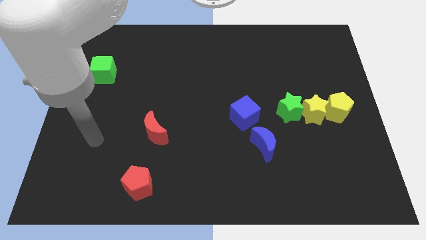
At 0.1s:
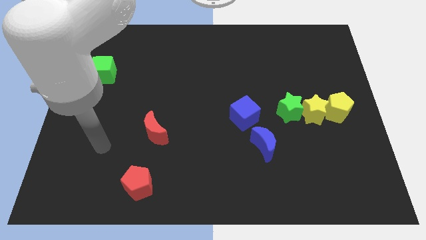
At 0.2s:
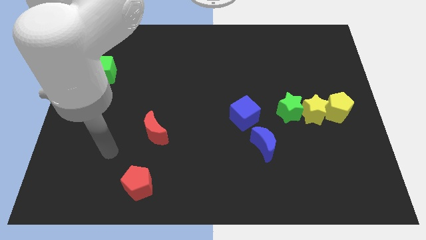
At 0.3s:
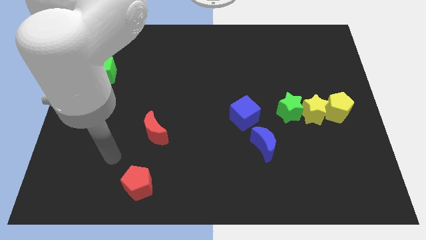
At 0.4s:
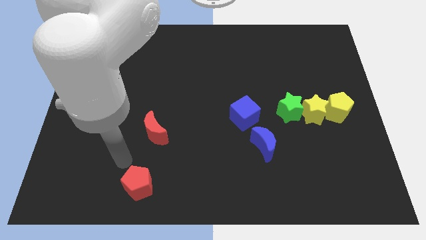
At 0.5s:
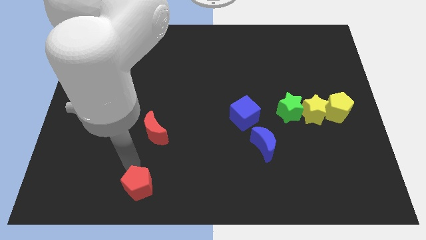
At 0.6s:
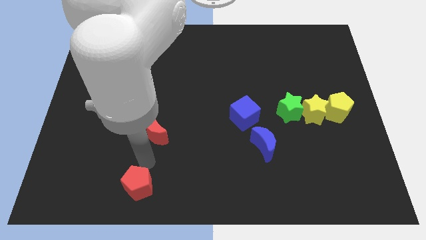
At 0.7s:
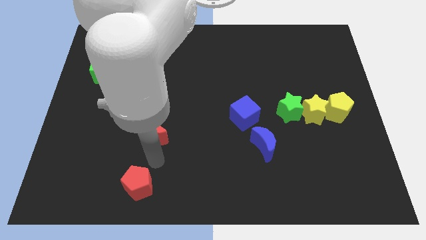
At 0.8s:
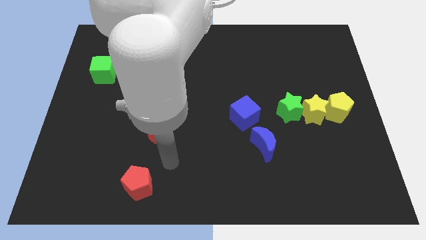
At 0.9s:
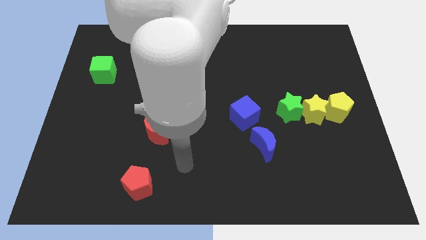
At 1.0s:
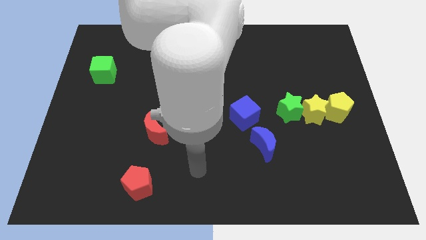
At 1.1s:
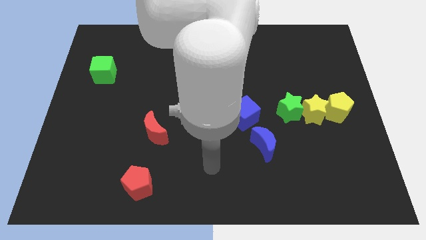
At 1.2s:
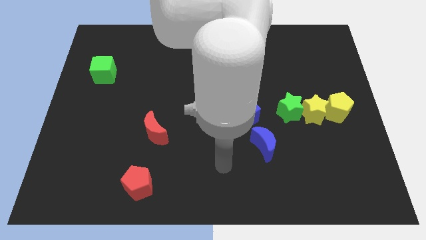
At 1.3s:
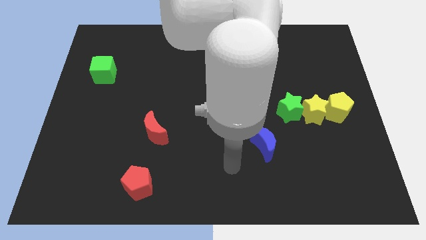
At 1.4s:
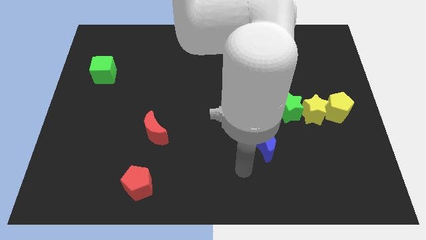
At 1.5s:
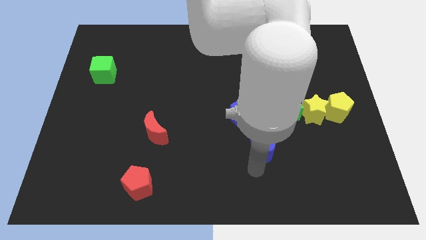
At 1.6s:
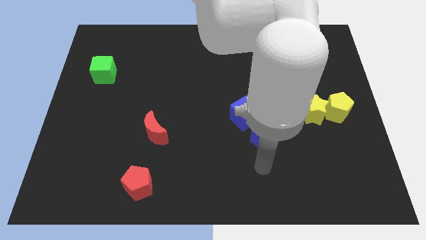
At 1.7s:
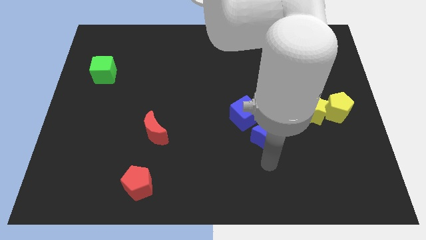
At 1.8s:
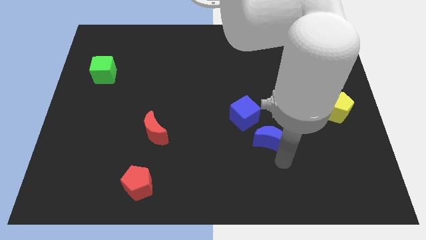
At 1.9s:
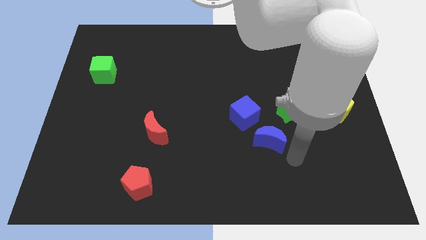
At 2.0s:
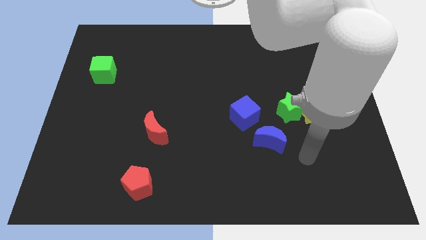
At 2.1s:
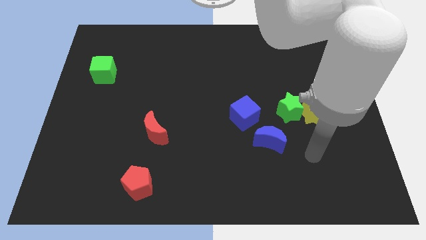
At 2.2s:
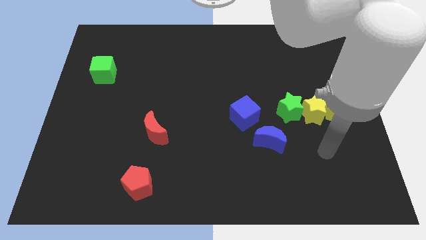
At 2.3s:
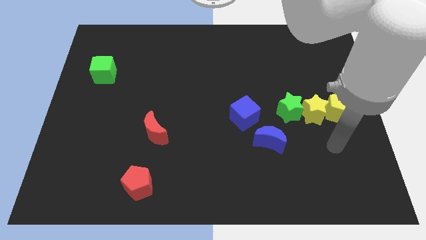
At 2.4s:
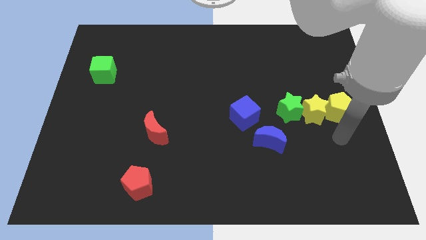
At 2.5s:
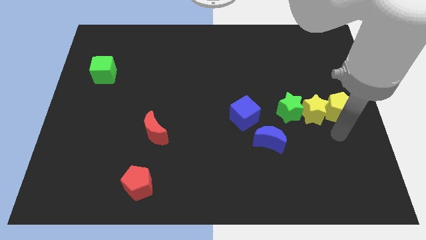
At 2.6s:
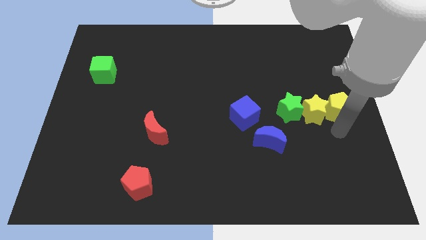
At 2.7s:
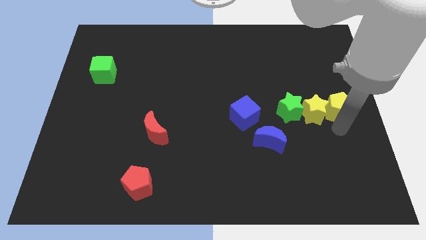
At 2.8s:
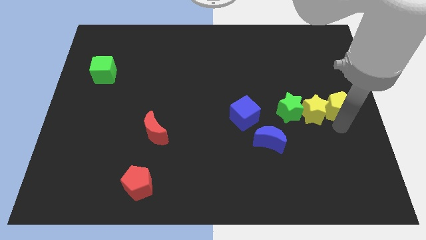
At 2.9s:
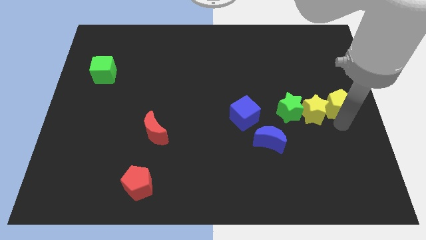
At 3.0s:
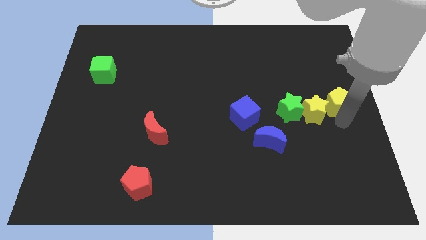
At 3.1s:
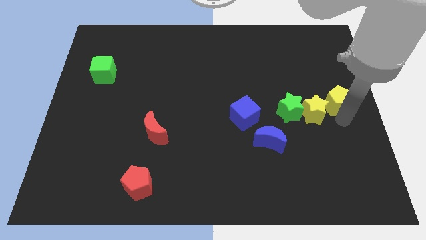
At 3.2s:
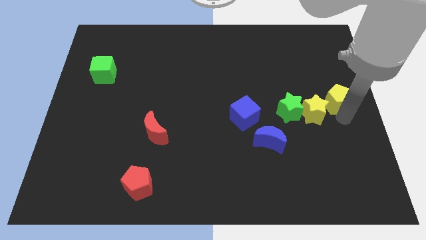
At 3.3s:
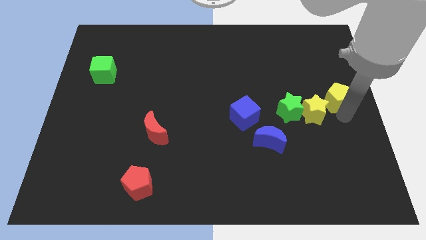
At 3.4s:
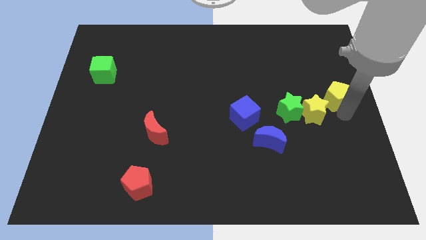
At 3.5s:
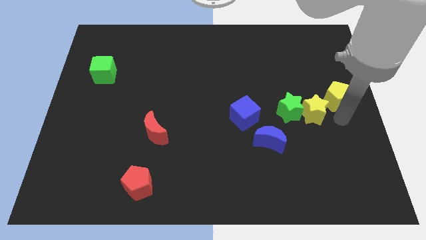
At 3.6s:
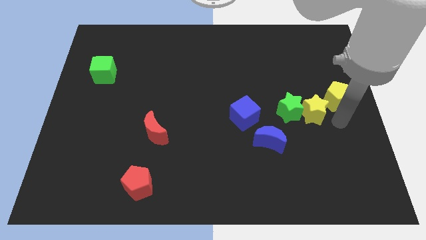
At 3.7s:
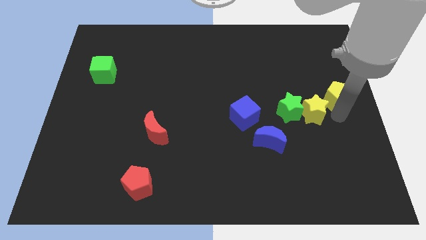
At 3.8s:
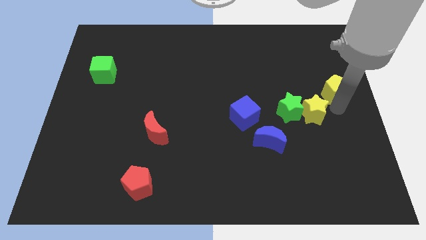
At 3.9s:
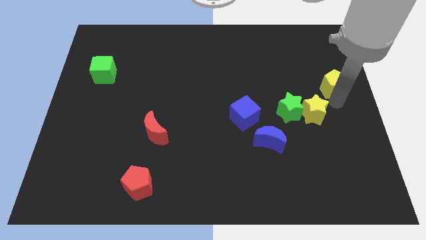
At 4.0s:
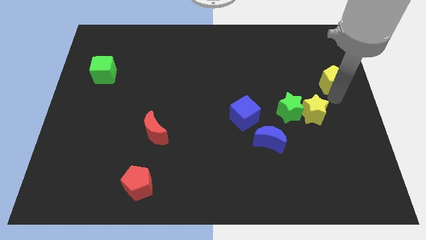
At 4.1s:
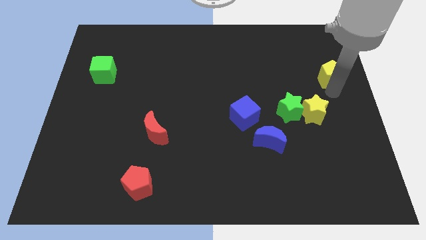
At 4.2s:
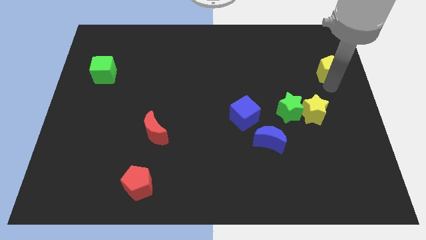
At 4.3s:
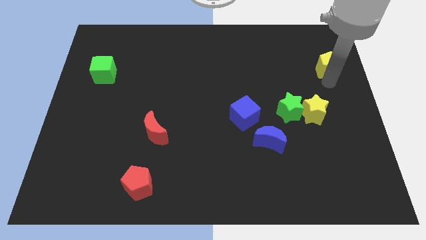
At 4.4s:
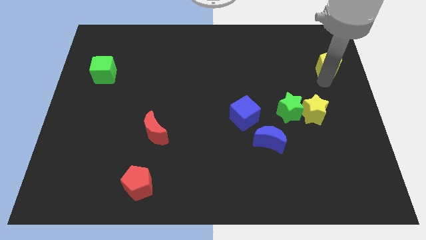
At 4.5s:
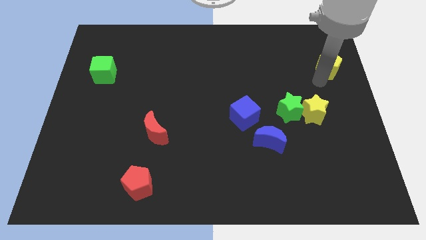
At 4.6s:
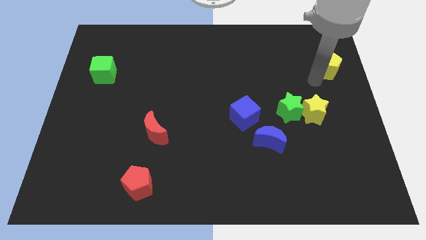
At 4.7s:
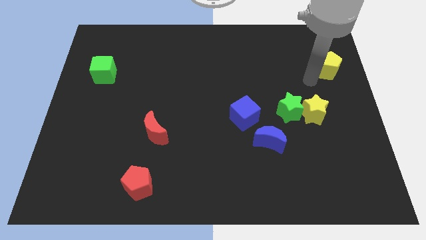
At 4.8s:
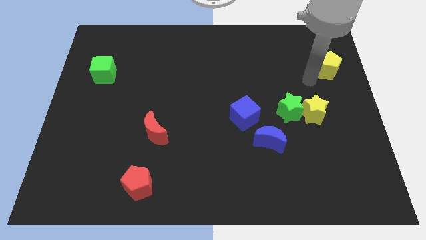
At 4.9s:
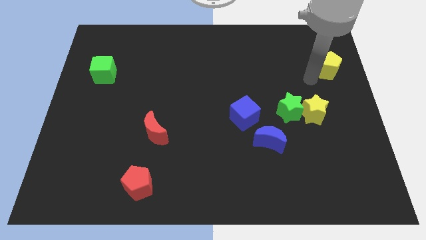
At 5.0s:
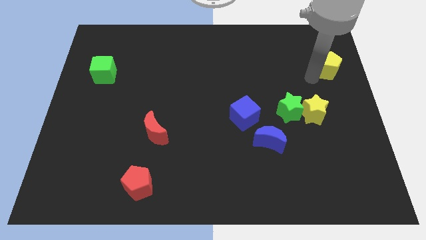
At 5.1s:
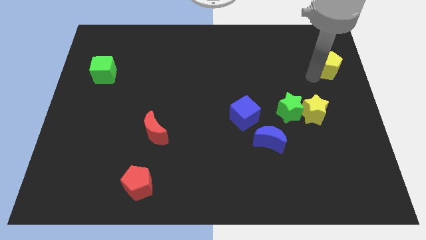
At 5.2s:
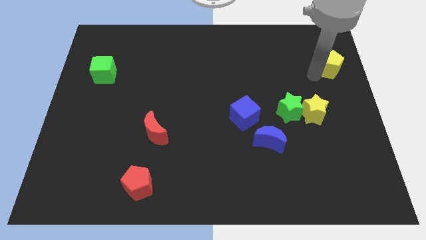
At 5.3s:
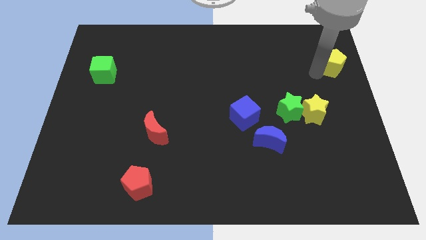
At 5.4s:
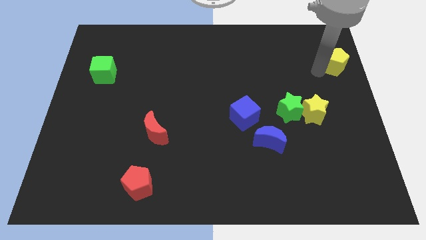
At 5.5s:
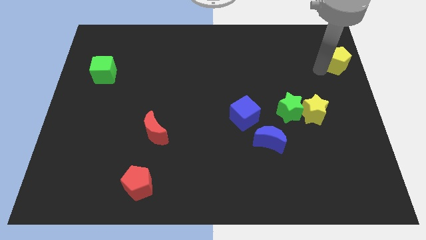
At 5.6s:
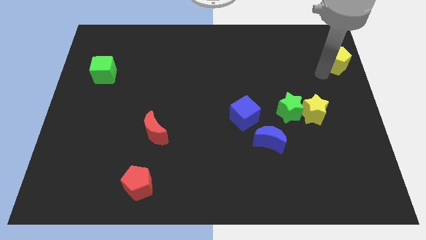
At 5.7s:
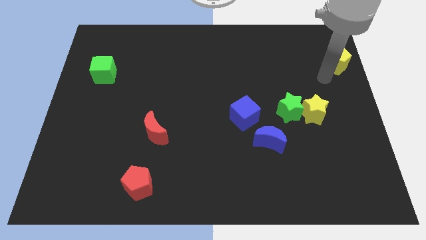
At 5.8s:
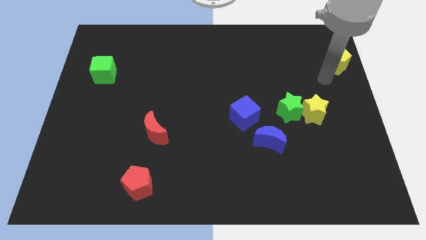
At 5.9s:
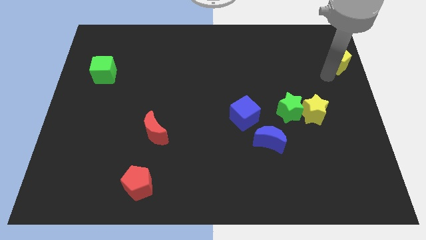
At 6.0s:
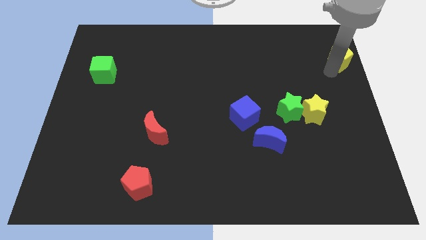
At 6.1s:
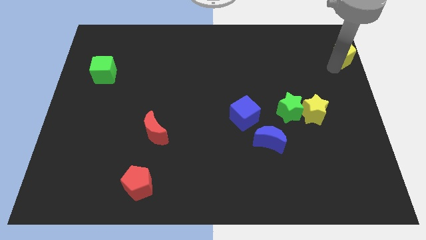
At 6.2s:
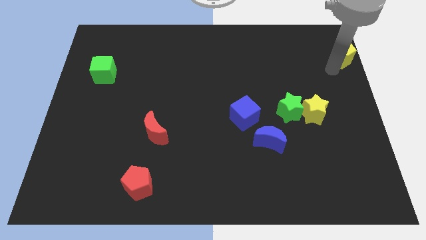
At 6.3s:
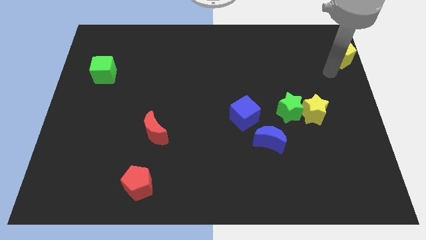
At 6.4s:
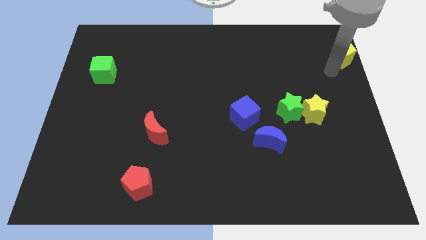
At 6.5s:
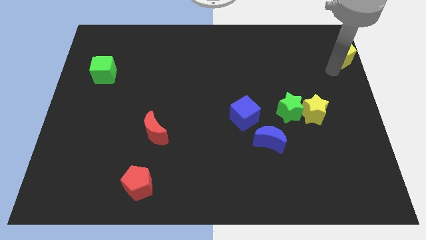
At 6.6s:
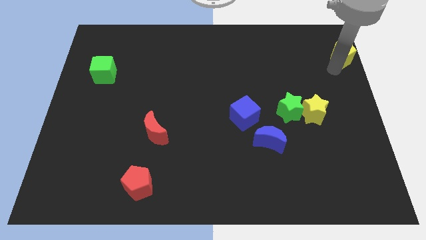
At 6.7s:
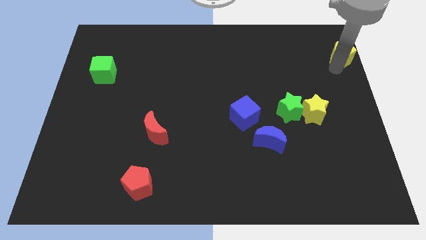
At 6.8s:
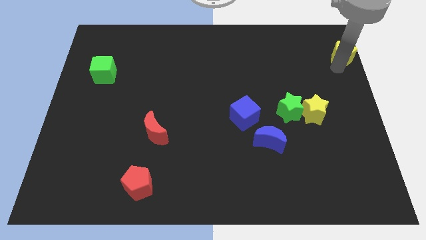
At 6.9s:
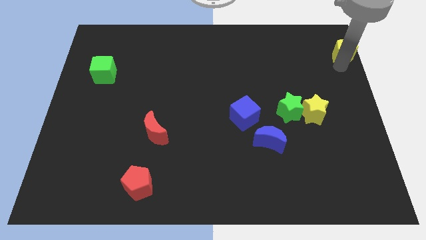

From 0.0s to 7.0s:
put the yellow pentagon to the top right
